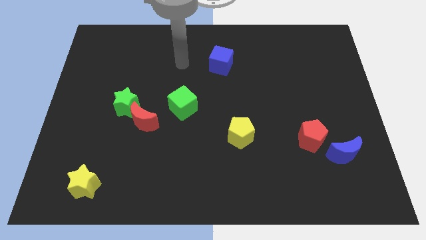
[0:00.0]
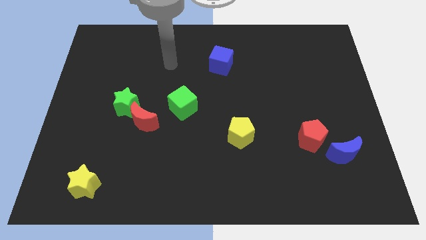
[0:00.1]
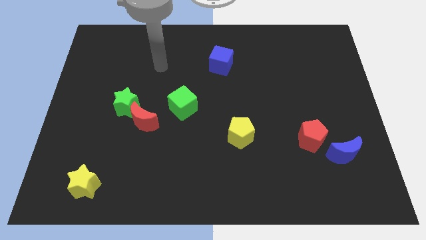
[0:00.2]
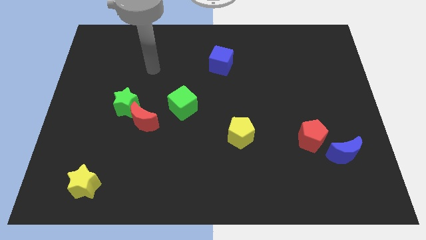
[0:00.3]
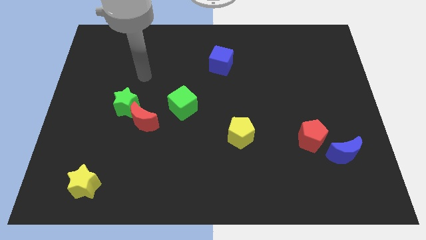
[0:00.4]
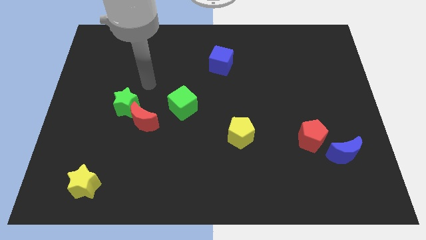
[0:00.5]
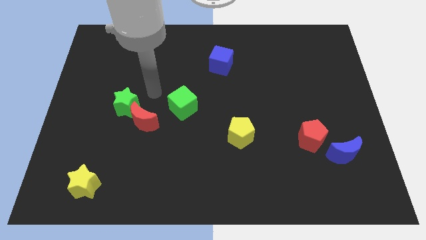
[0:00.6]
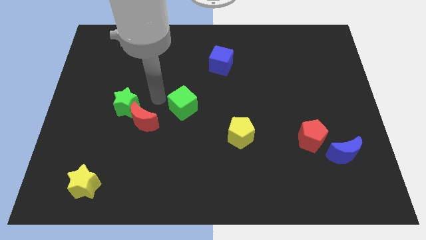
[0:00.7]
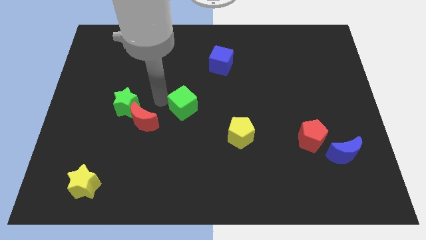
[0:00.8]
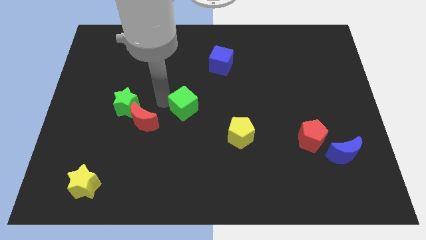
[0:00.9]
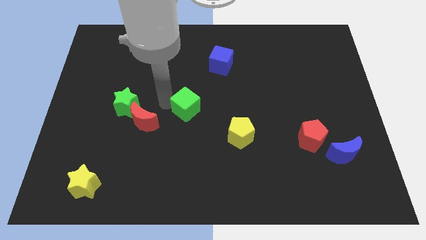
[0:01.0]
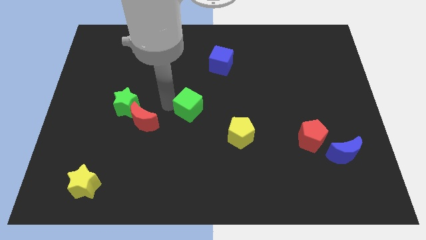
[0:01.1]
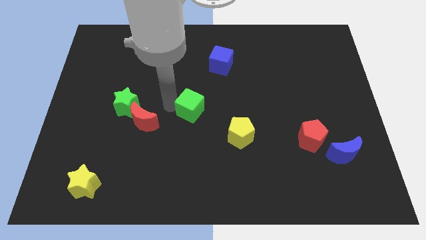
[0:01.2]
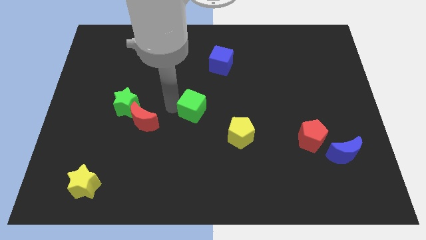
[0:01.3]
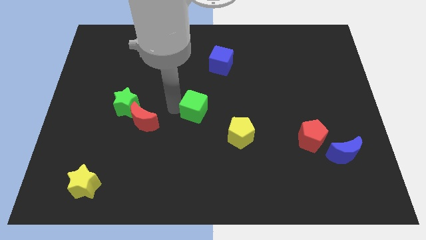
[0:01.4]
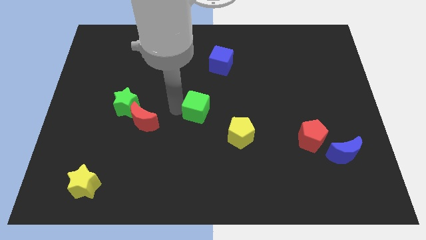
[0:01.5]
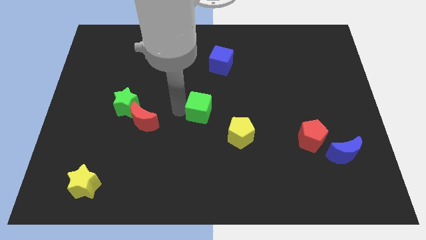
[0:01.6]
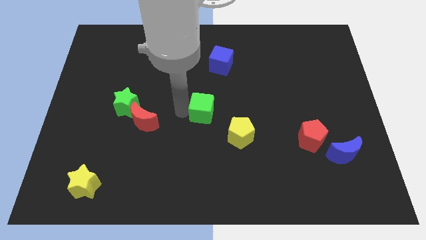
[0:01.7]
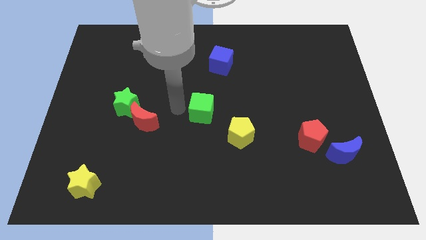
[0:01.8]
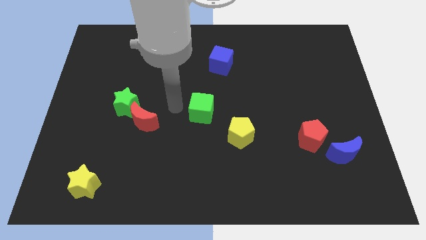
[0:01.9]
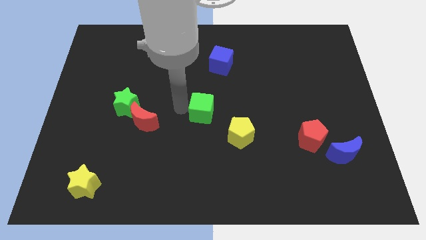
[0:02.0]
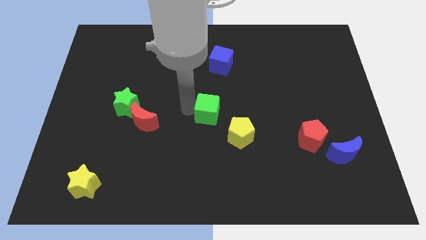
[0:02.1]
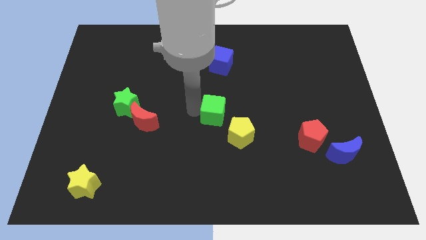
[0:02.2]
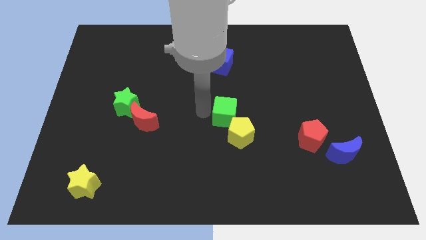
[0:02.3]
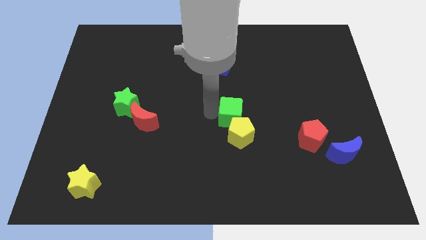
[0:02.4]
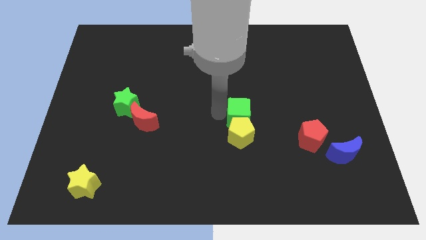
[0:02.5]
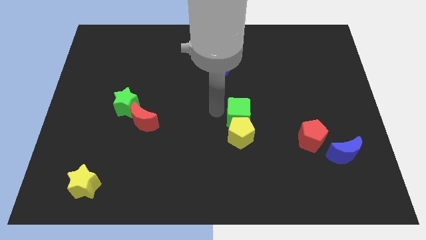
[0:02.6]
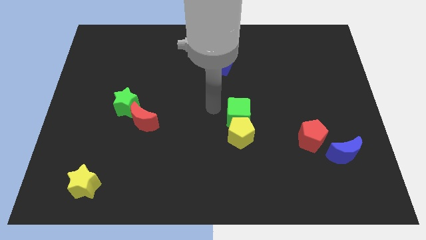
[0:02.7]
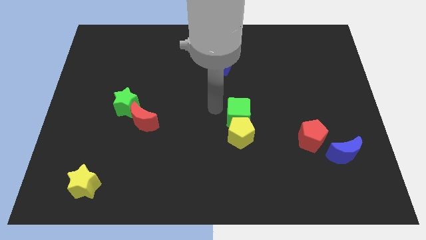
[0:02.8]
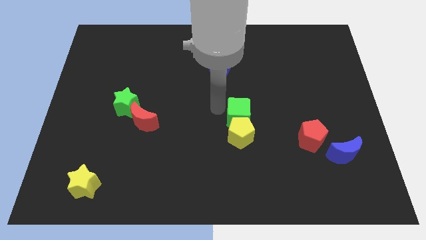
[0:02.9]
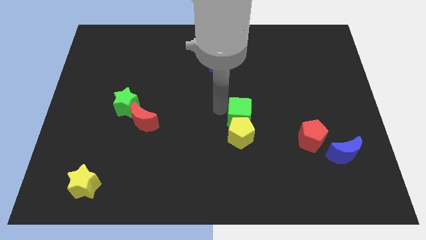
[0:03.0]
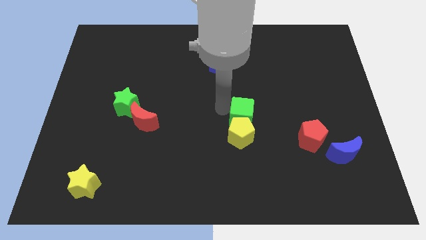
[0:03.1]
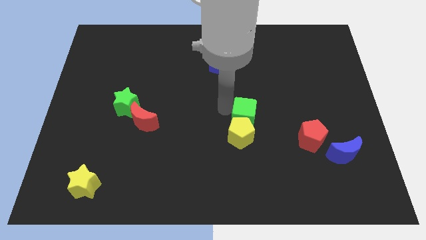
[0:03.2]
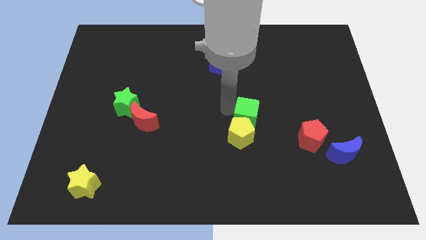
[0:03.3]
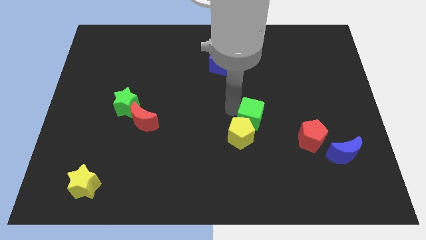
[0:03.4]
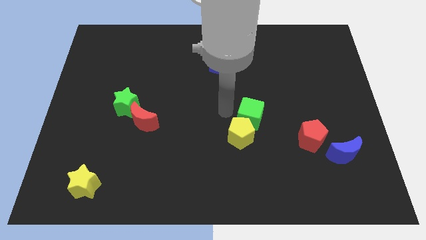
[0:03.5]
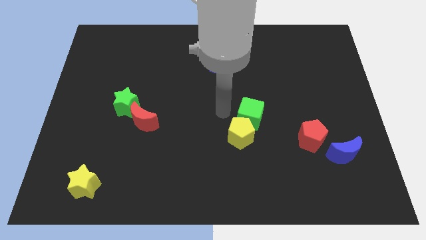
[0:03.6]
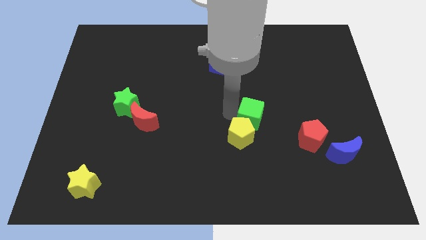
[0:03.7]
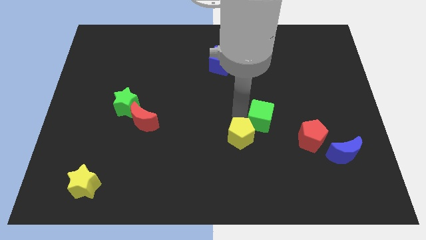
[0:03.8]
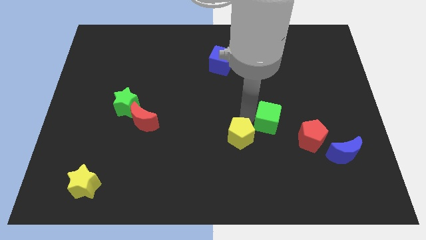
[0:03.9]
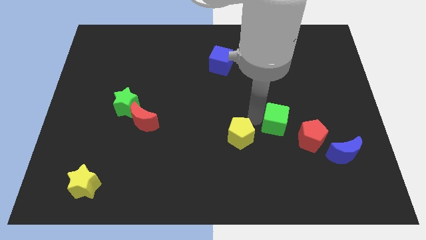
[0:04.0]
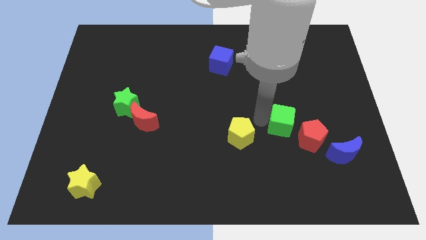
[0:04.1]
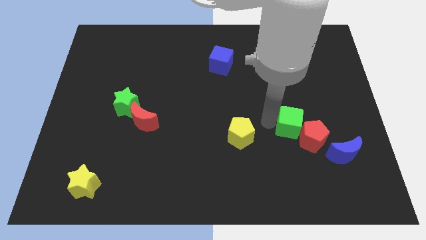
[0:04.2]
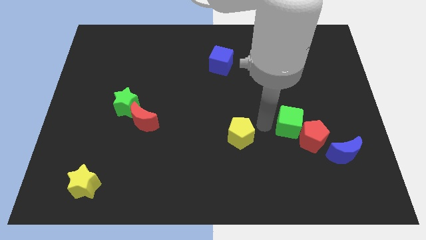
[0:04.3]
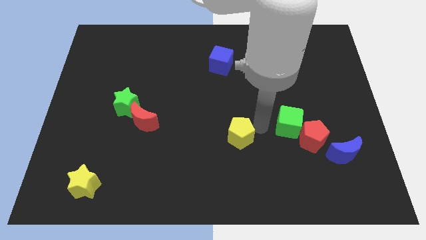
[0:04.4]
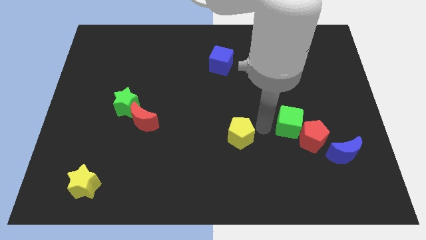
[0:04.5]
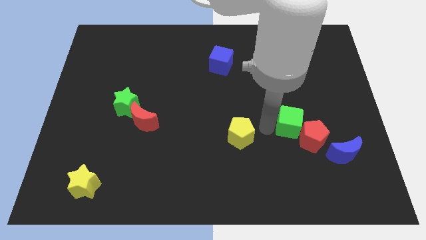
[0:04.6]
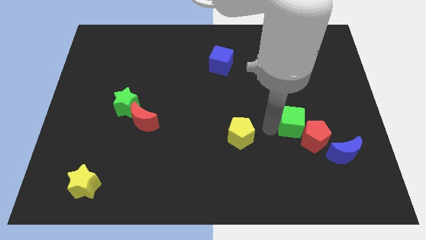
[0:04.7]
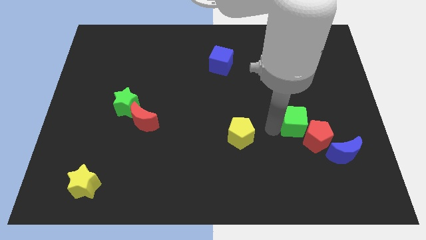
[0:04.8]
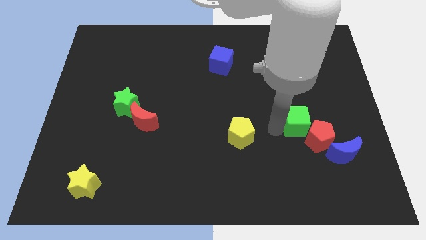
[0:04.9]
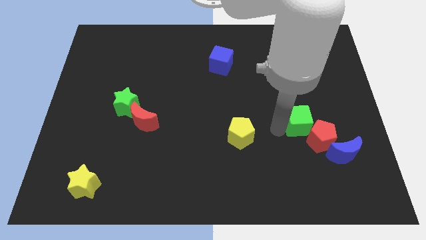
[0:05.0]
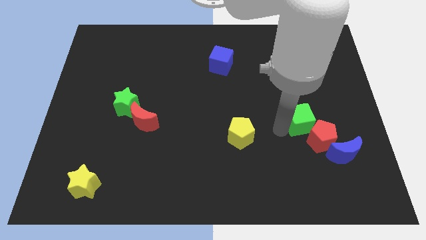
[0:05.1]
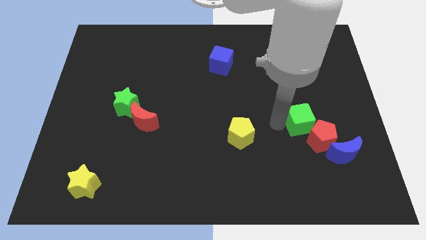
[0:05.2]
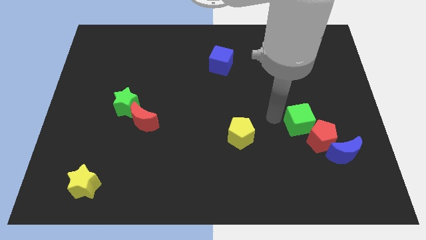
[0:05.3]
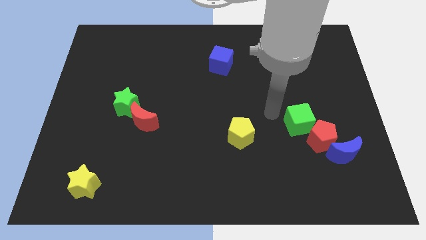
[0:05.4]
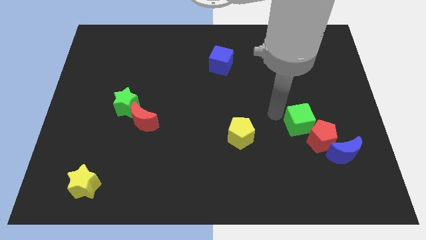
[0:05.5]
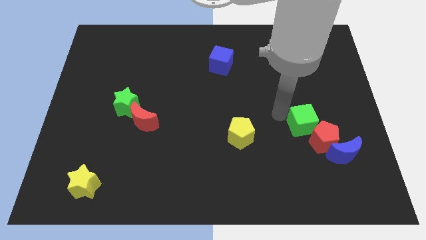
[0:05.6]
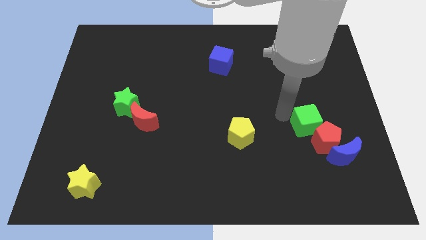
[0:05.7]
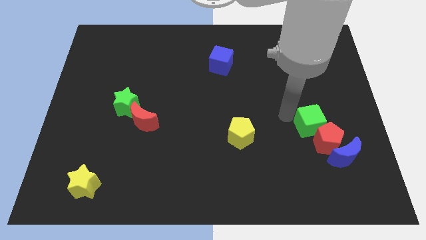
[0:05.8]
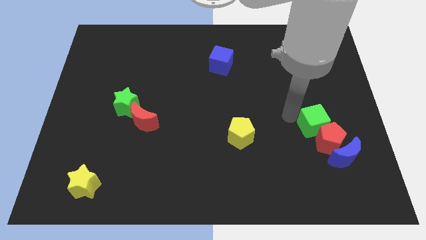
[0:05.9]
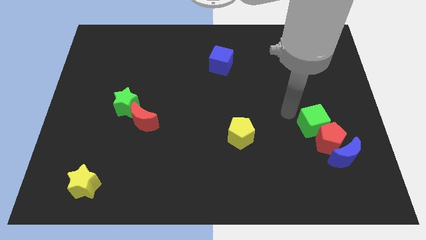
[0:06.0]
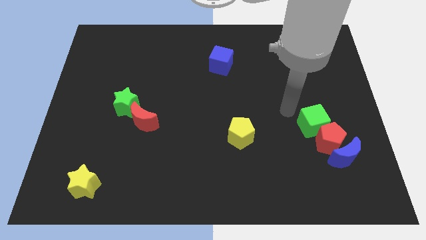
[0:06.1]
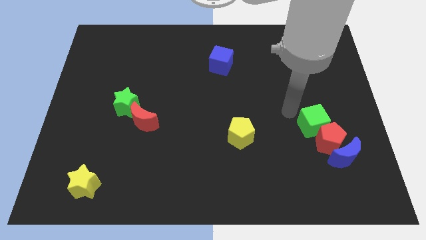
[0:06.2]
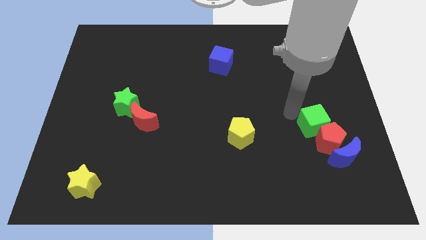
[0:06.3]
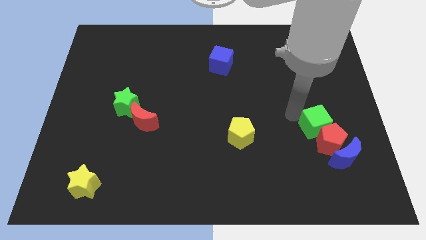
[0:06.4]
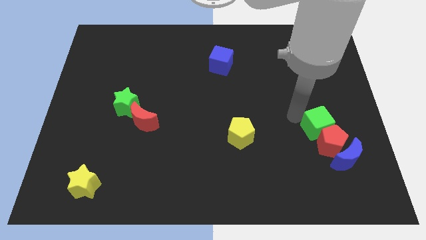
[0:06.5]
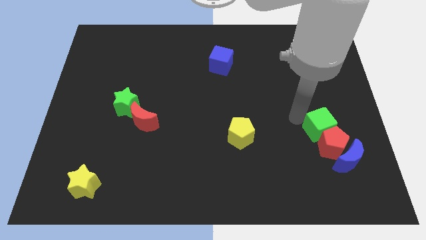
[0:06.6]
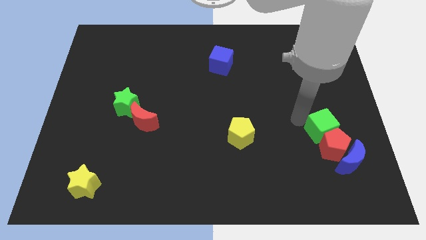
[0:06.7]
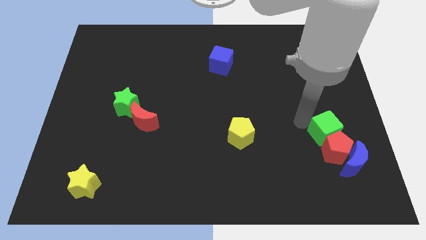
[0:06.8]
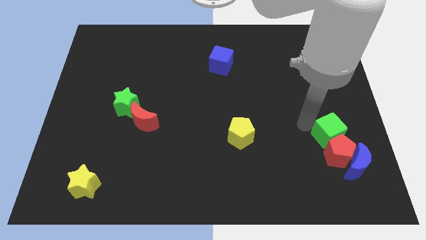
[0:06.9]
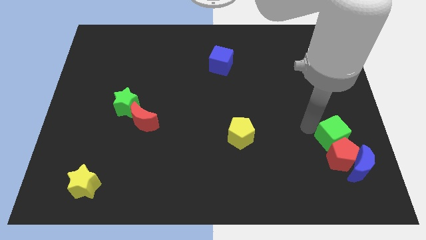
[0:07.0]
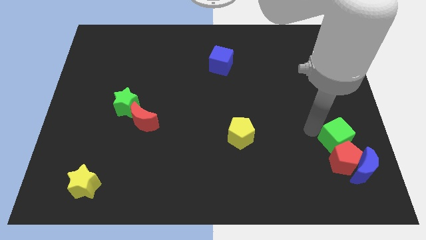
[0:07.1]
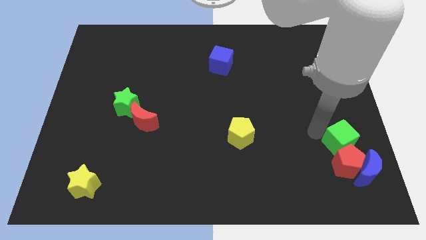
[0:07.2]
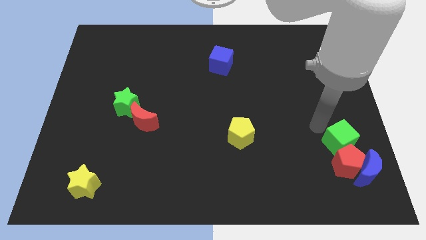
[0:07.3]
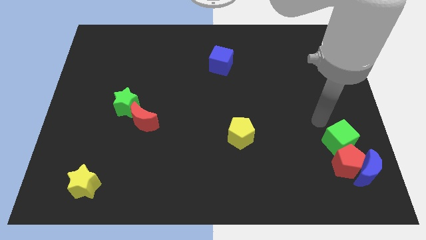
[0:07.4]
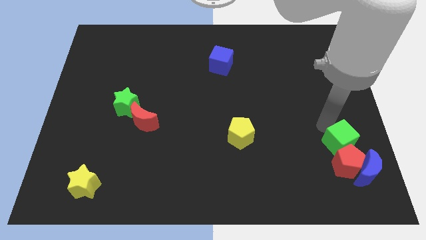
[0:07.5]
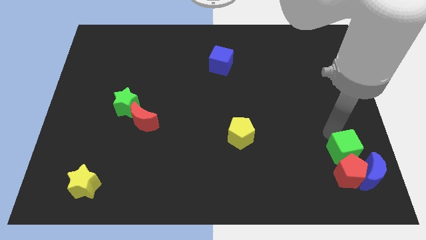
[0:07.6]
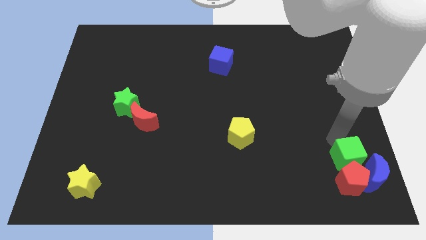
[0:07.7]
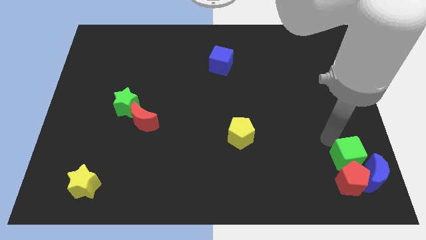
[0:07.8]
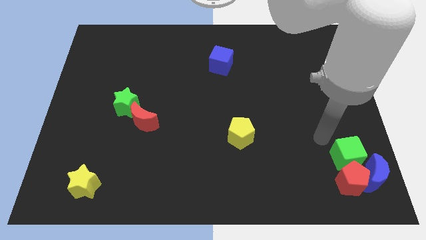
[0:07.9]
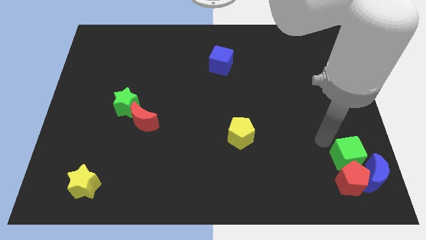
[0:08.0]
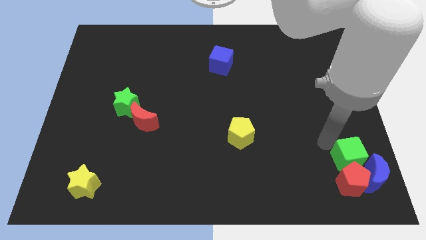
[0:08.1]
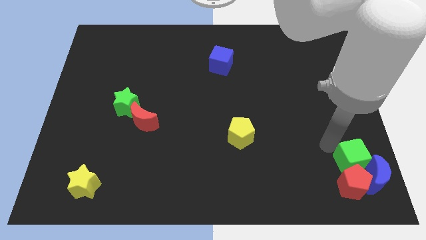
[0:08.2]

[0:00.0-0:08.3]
put the green cube to the blue moon
